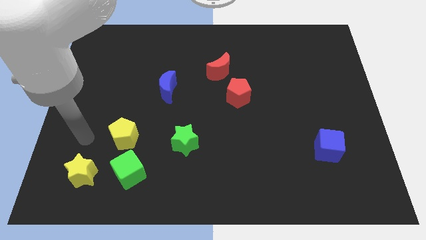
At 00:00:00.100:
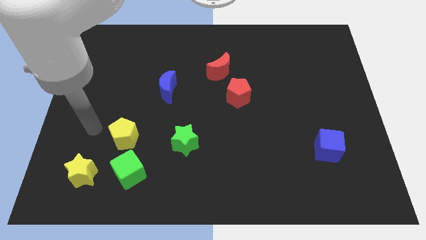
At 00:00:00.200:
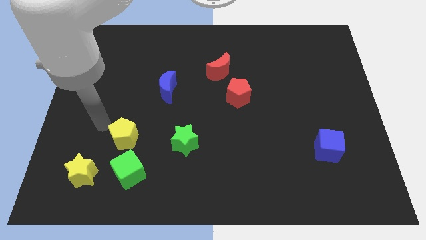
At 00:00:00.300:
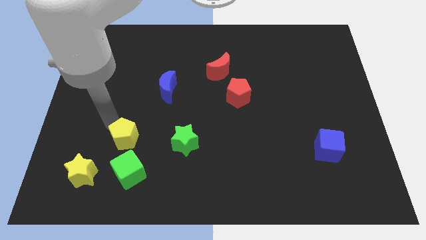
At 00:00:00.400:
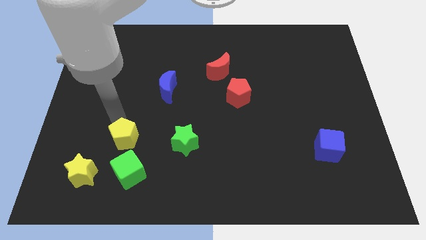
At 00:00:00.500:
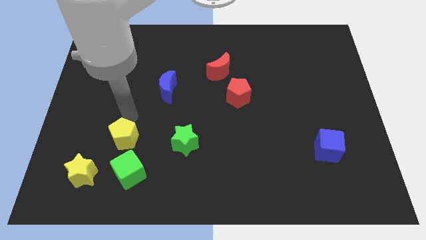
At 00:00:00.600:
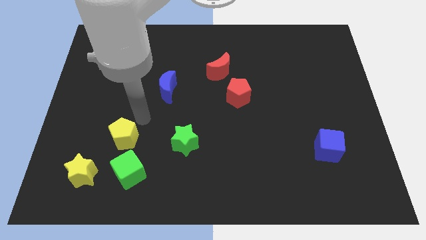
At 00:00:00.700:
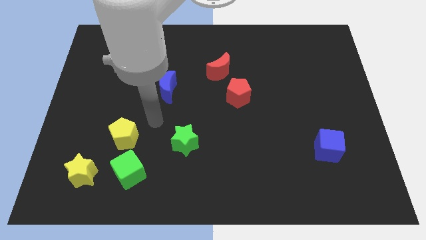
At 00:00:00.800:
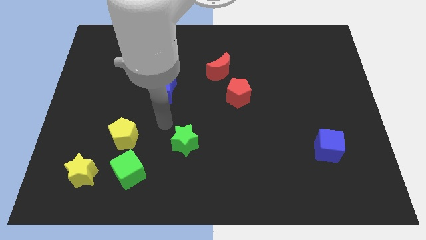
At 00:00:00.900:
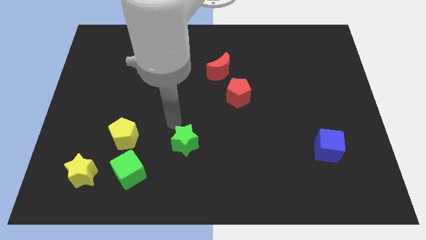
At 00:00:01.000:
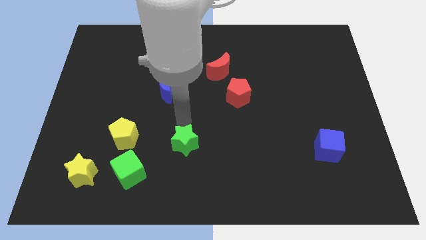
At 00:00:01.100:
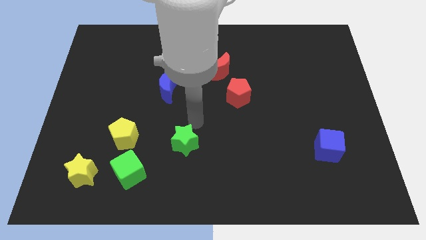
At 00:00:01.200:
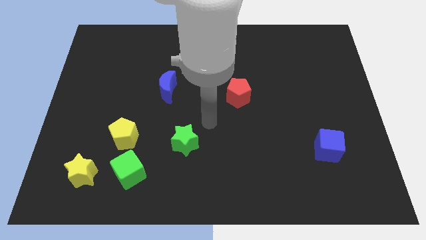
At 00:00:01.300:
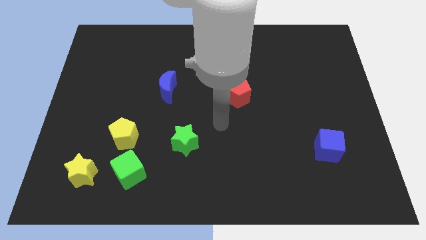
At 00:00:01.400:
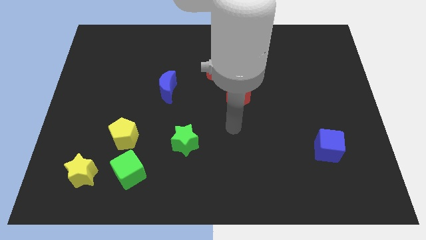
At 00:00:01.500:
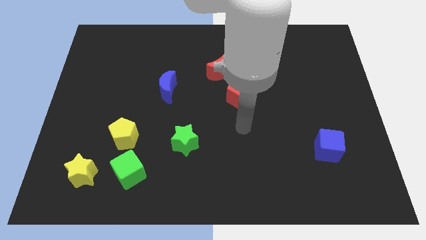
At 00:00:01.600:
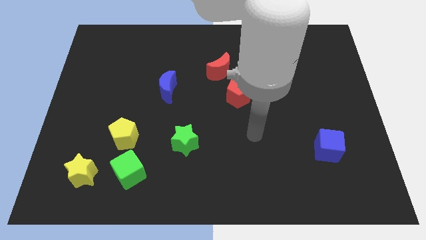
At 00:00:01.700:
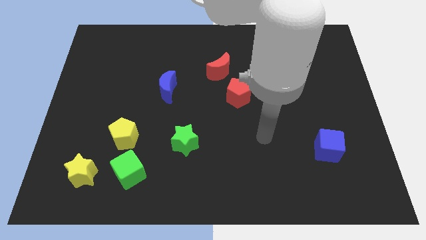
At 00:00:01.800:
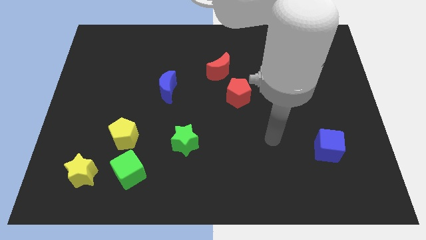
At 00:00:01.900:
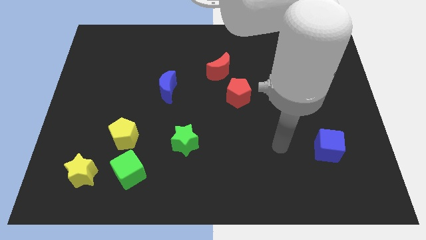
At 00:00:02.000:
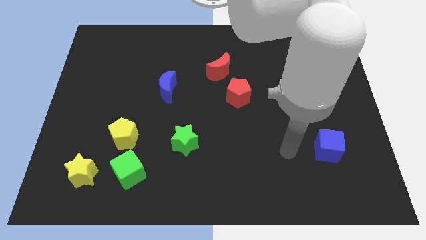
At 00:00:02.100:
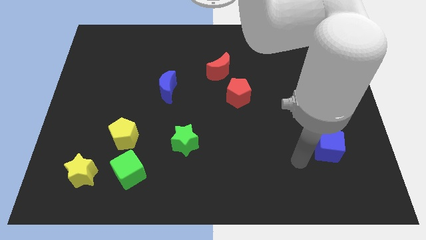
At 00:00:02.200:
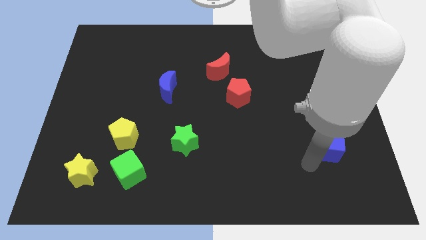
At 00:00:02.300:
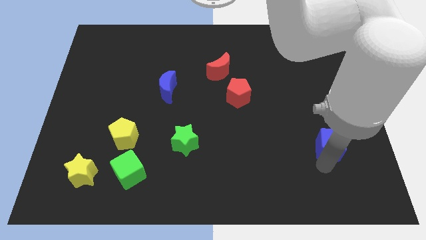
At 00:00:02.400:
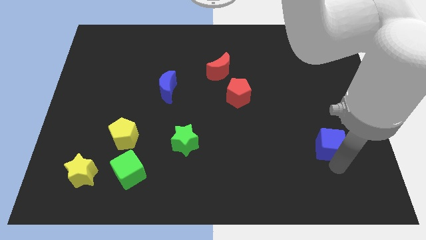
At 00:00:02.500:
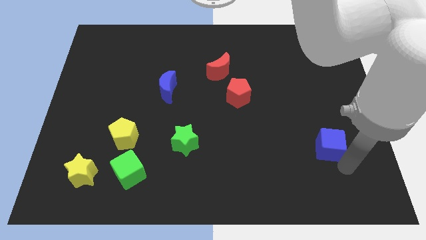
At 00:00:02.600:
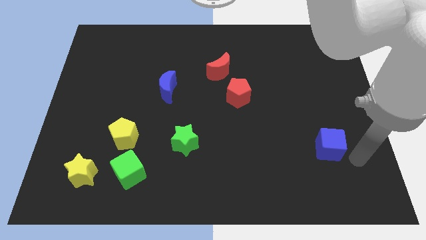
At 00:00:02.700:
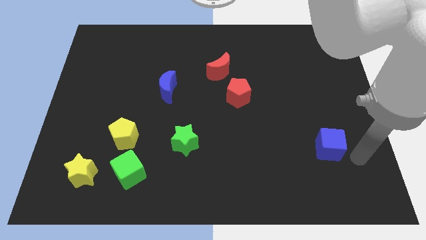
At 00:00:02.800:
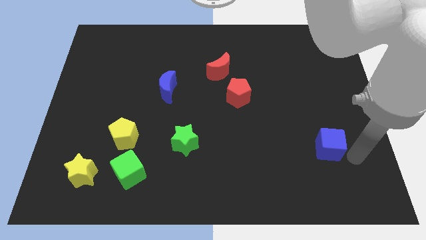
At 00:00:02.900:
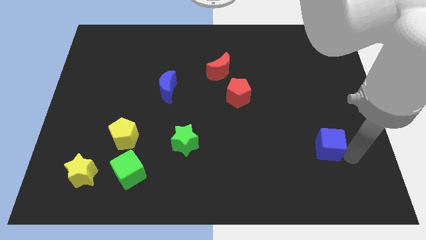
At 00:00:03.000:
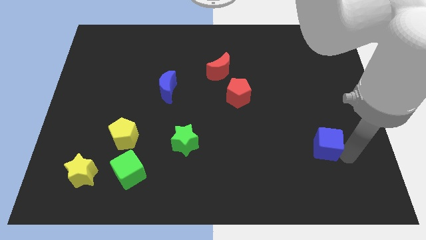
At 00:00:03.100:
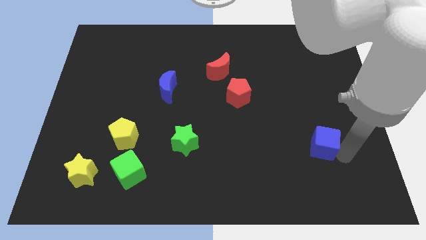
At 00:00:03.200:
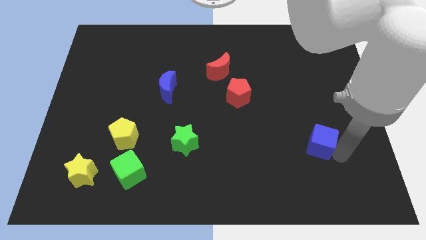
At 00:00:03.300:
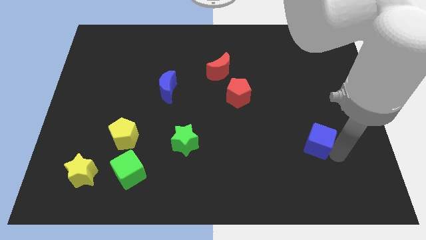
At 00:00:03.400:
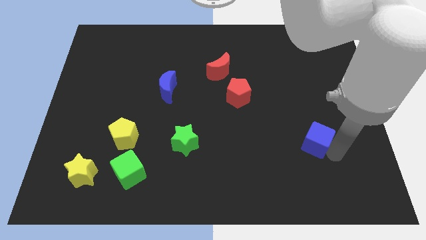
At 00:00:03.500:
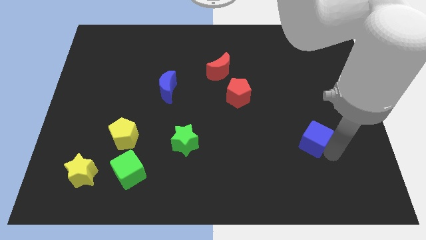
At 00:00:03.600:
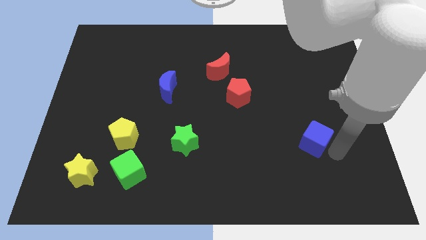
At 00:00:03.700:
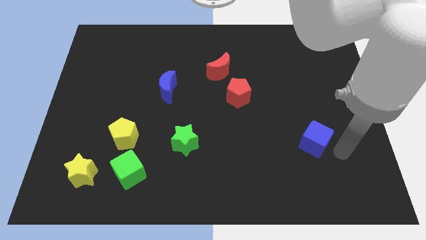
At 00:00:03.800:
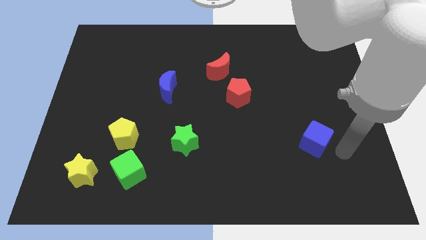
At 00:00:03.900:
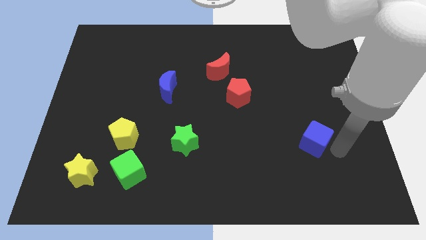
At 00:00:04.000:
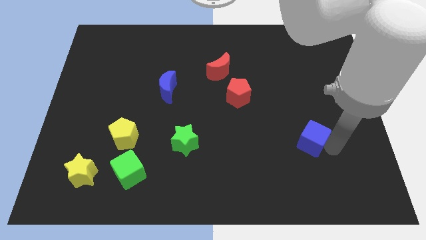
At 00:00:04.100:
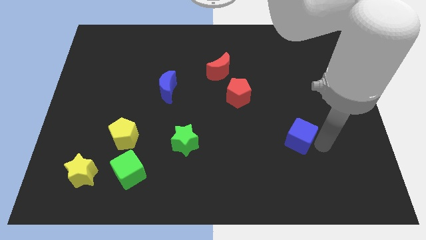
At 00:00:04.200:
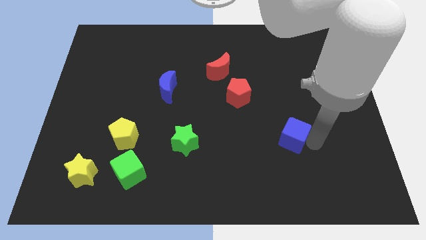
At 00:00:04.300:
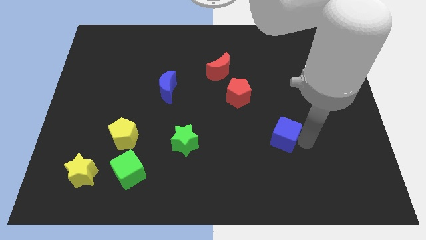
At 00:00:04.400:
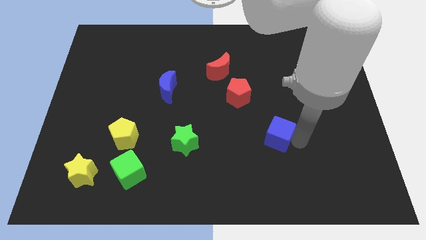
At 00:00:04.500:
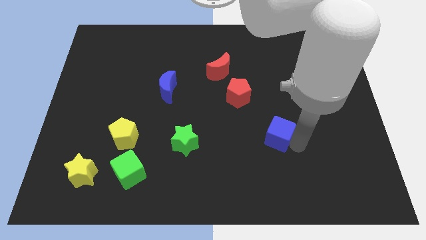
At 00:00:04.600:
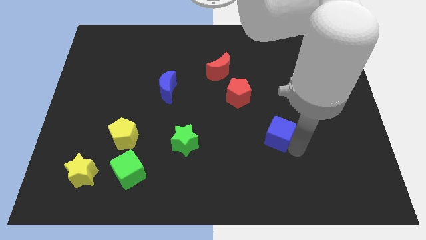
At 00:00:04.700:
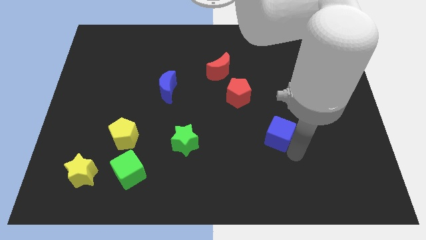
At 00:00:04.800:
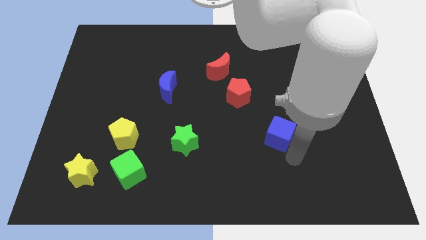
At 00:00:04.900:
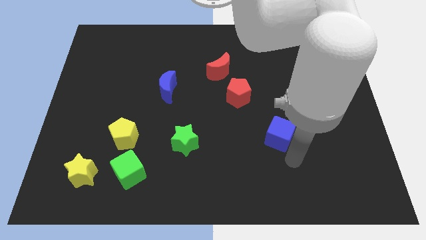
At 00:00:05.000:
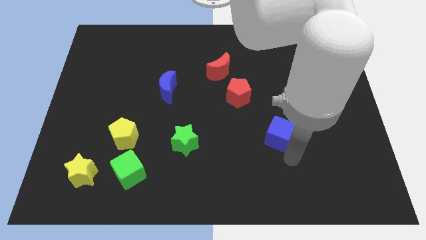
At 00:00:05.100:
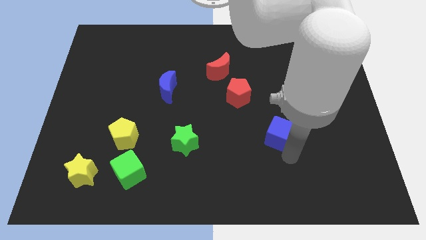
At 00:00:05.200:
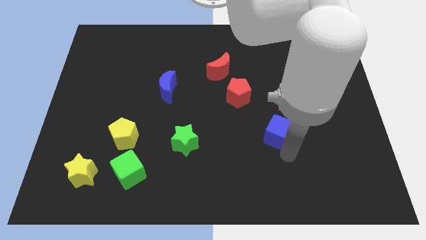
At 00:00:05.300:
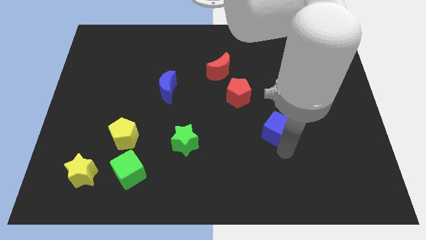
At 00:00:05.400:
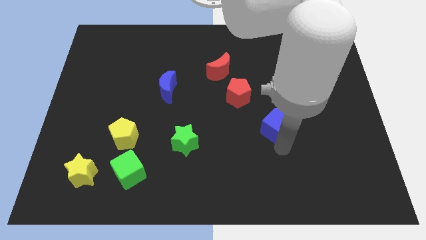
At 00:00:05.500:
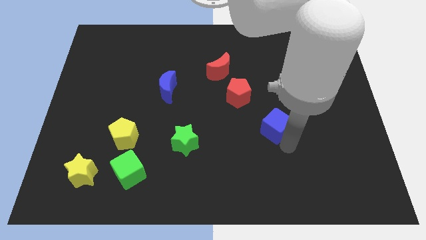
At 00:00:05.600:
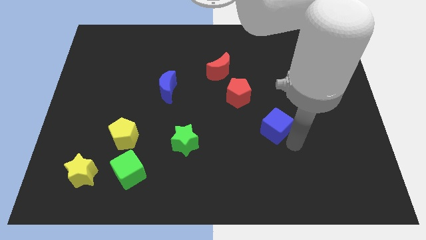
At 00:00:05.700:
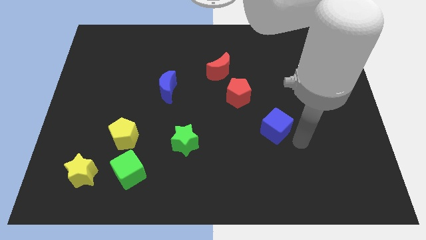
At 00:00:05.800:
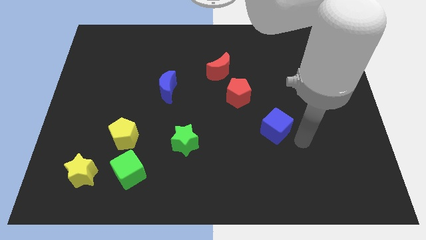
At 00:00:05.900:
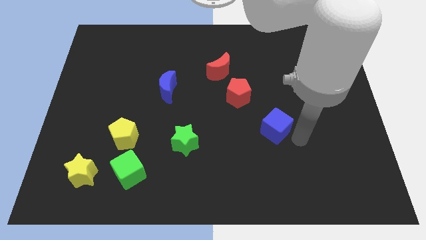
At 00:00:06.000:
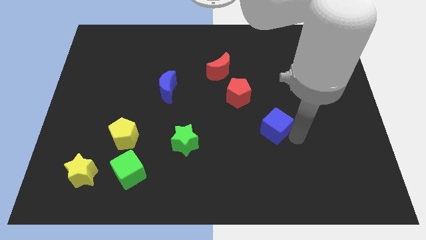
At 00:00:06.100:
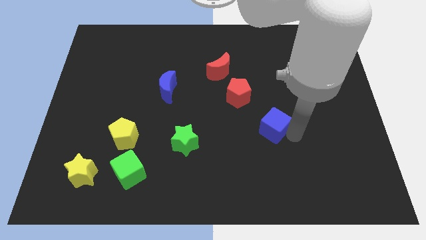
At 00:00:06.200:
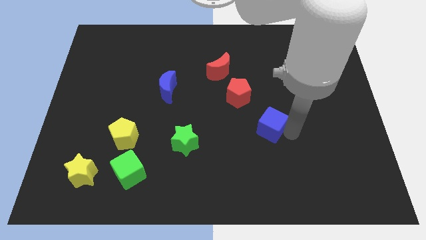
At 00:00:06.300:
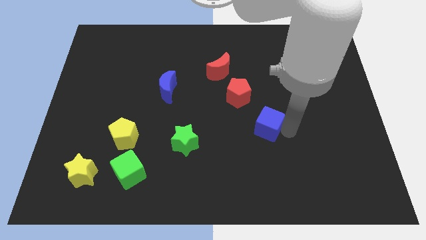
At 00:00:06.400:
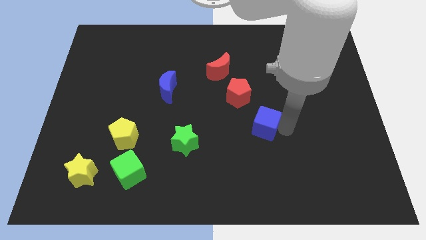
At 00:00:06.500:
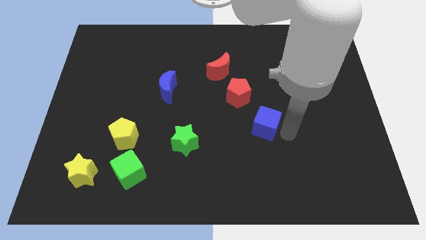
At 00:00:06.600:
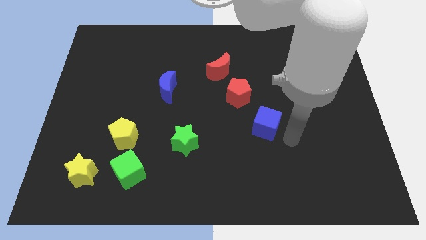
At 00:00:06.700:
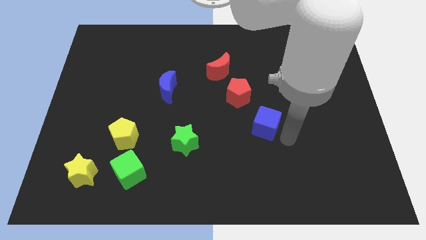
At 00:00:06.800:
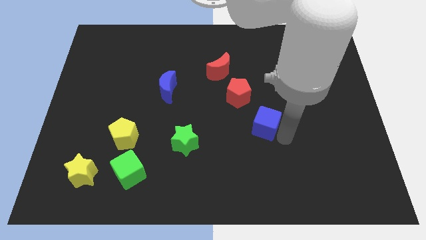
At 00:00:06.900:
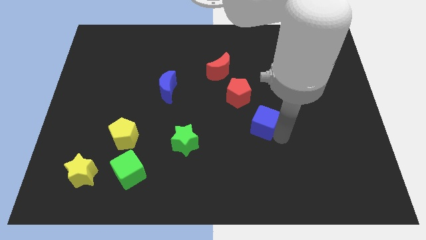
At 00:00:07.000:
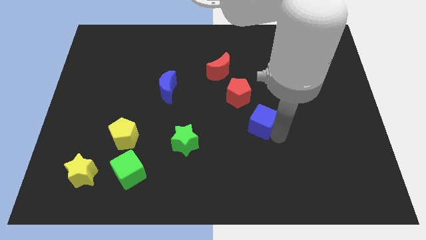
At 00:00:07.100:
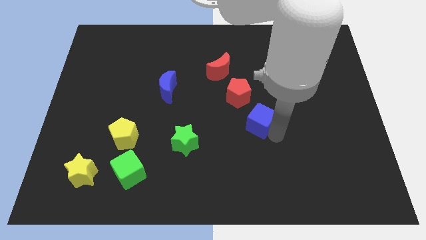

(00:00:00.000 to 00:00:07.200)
move the blue cube to the middle of the board
